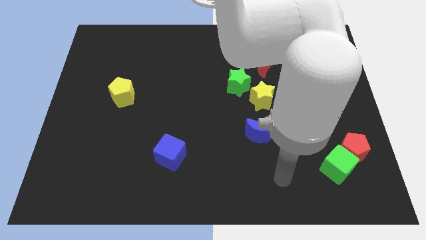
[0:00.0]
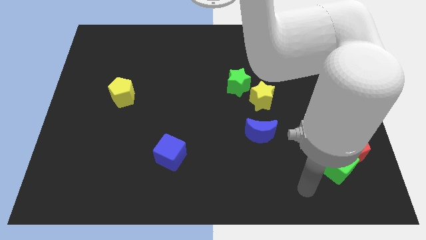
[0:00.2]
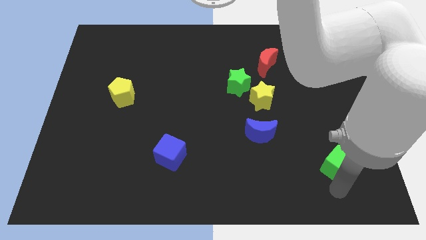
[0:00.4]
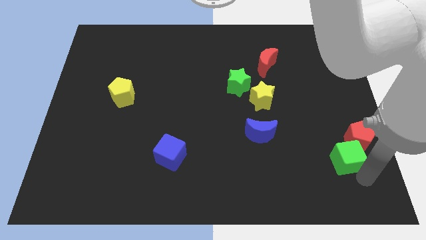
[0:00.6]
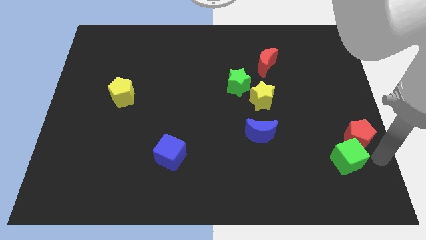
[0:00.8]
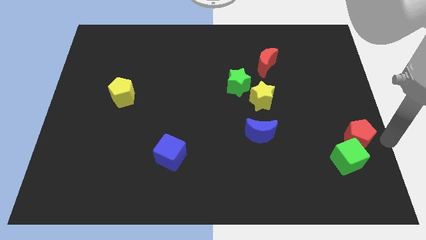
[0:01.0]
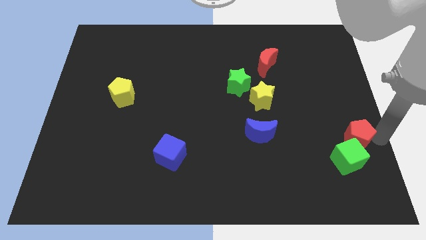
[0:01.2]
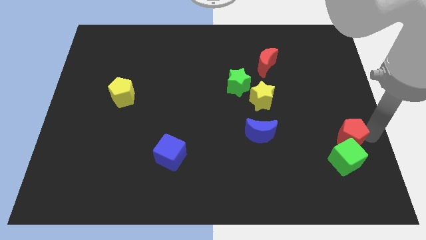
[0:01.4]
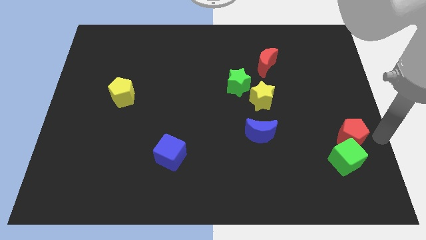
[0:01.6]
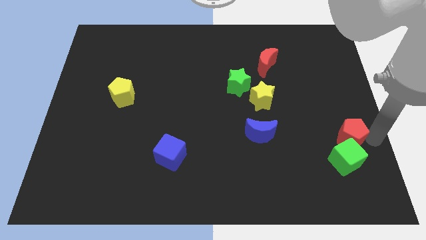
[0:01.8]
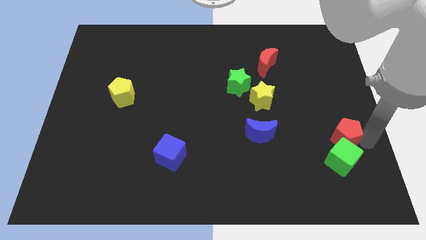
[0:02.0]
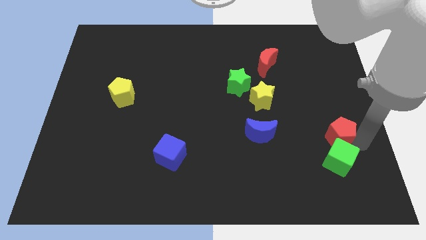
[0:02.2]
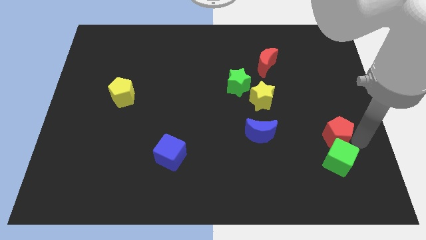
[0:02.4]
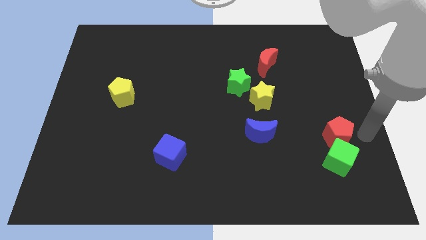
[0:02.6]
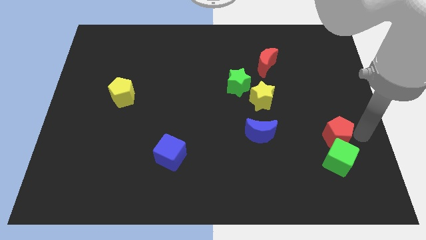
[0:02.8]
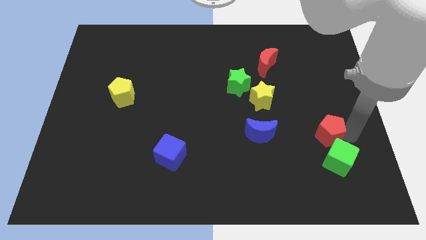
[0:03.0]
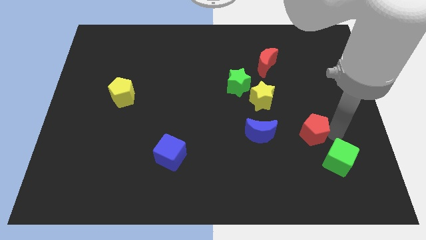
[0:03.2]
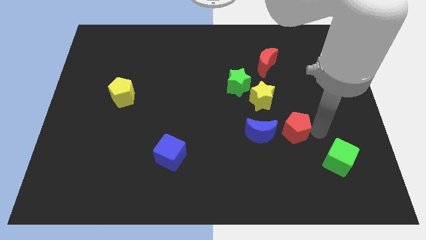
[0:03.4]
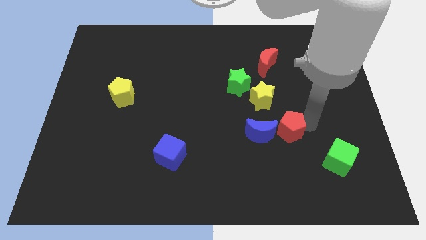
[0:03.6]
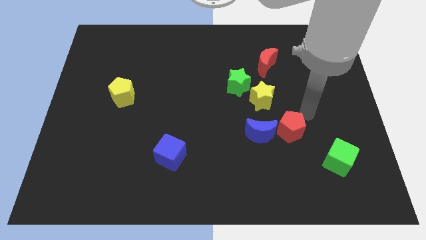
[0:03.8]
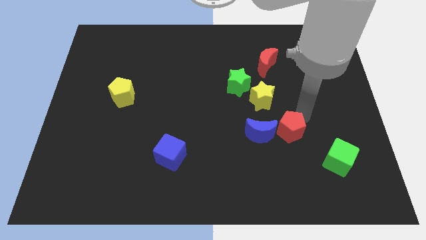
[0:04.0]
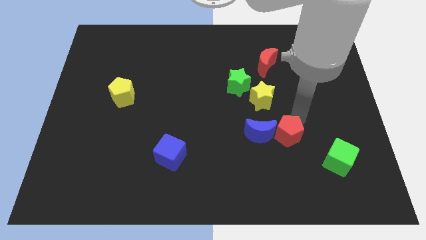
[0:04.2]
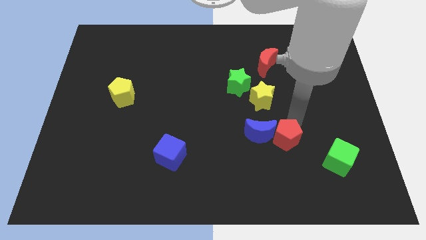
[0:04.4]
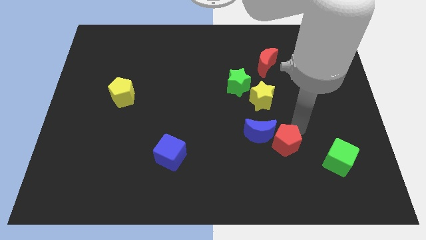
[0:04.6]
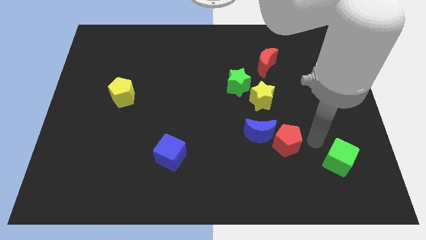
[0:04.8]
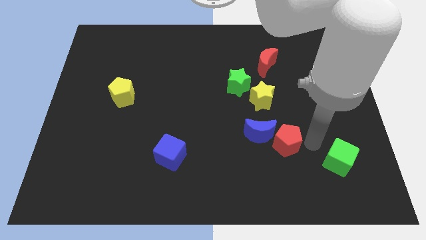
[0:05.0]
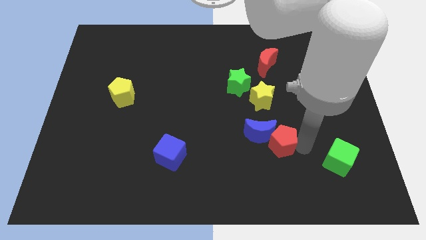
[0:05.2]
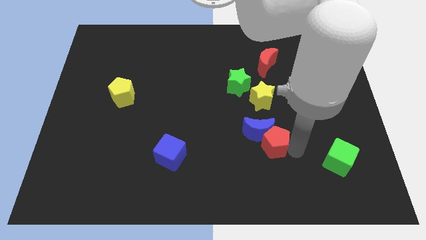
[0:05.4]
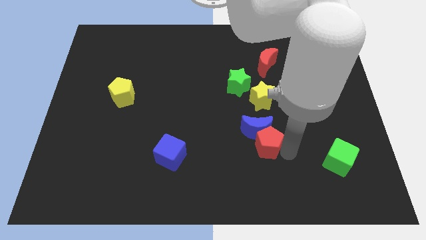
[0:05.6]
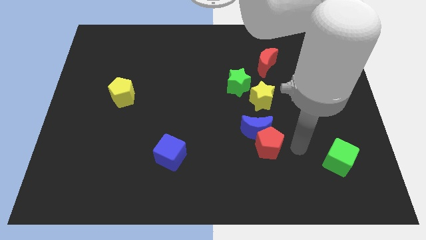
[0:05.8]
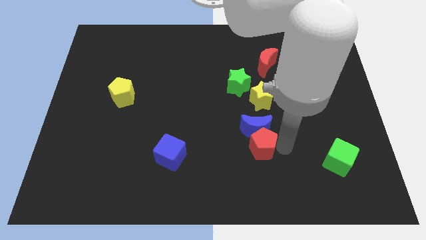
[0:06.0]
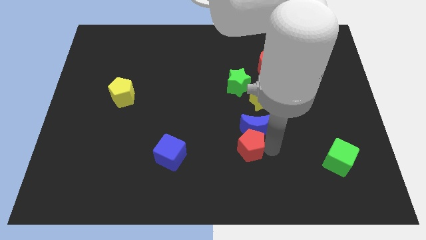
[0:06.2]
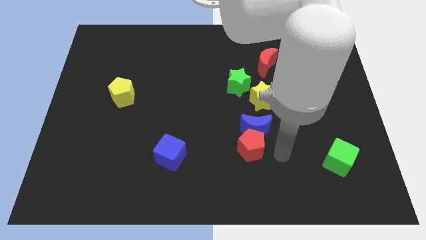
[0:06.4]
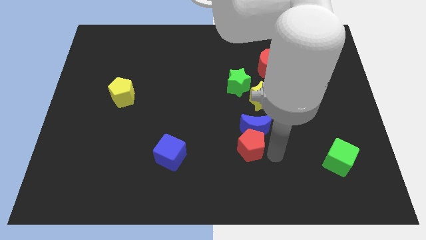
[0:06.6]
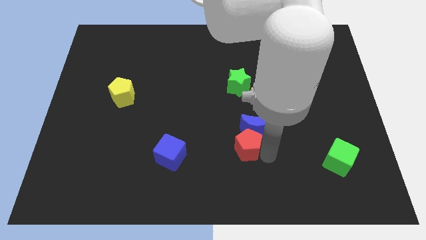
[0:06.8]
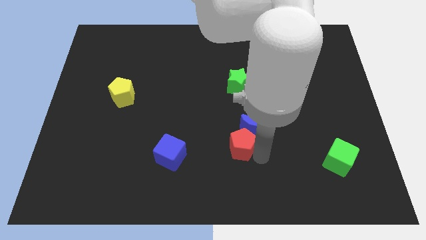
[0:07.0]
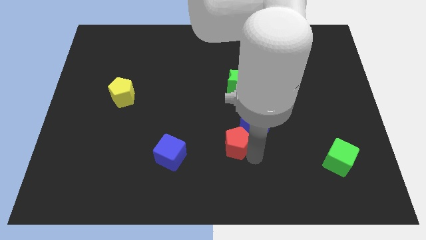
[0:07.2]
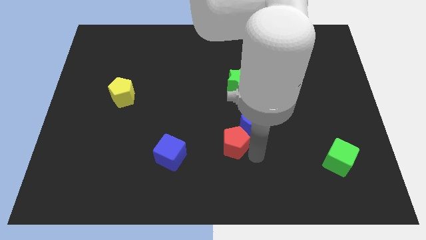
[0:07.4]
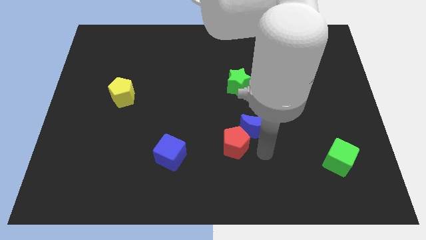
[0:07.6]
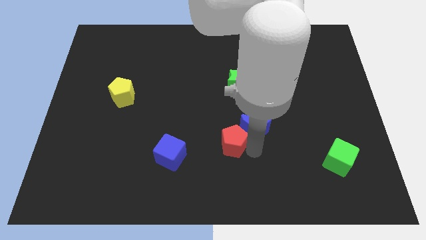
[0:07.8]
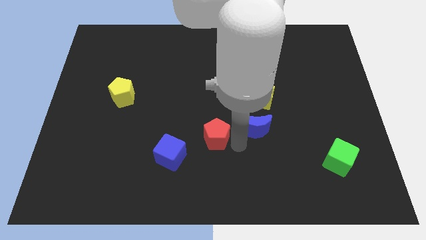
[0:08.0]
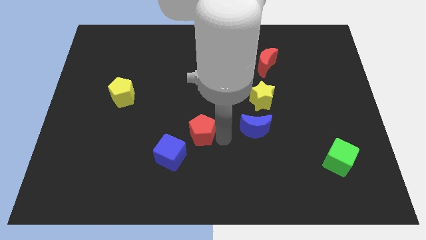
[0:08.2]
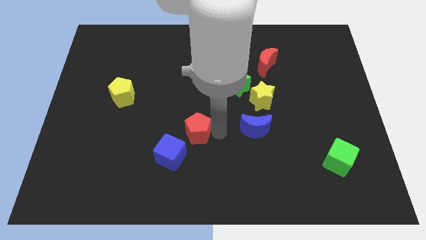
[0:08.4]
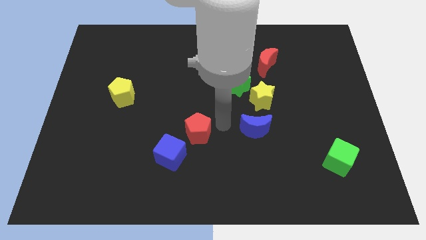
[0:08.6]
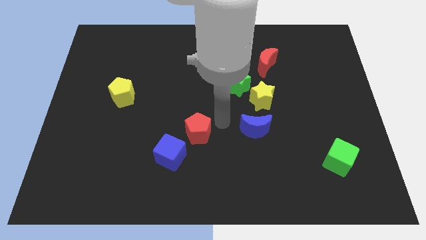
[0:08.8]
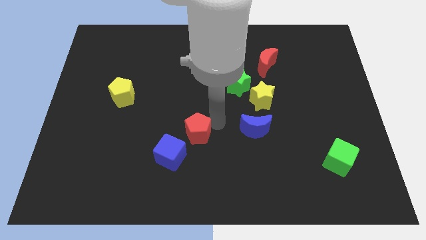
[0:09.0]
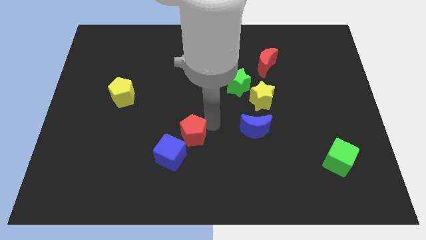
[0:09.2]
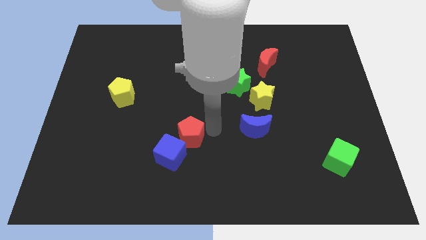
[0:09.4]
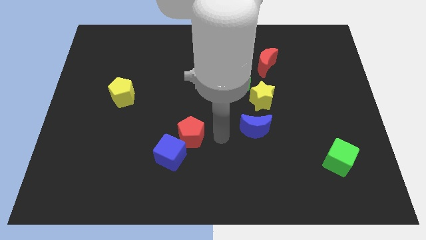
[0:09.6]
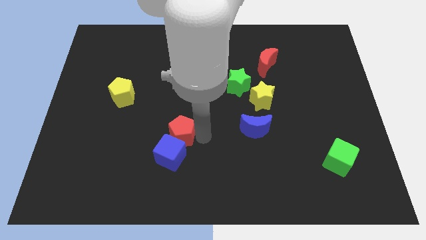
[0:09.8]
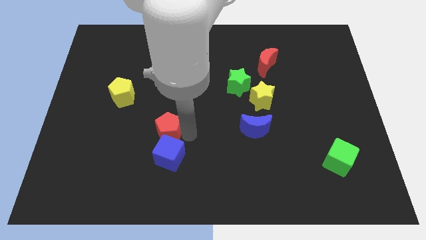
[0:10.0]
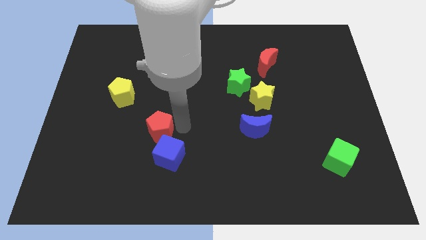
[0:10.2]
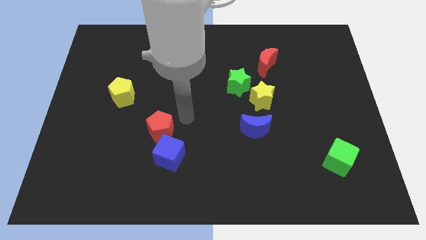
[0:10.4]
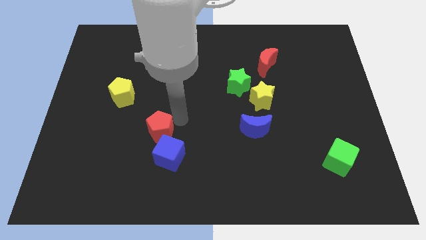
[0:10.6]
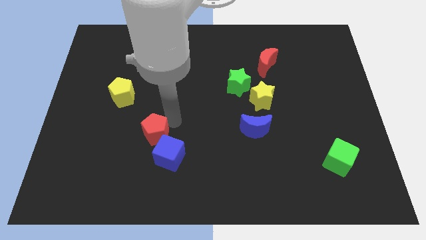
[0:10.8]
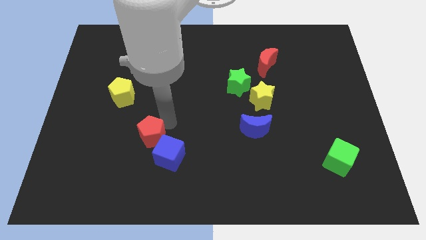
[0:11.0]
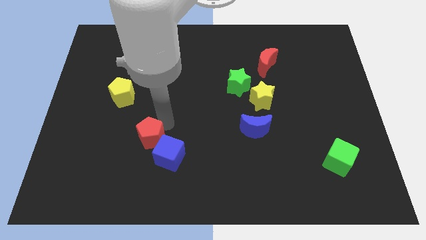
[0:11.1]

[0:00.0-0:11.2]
put the red pentagon to the left of the blue cube

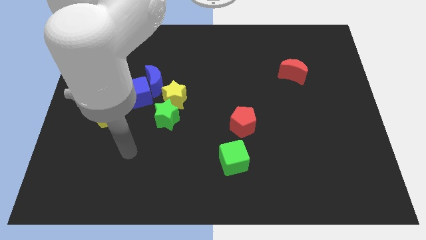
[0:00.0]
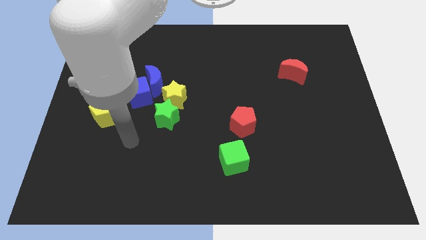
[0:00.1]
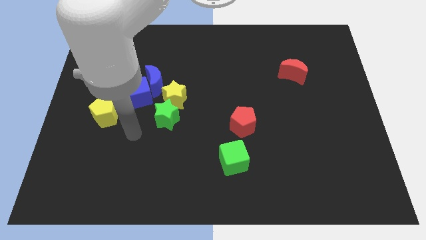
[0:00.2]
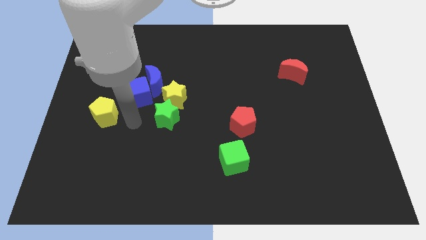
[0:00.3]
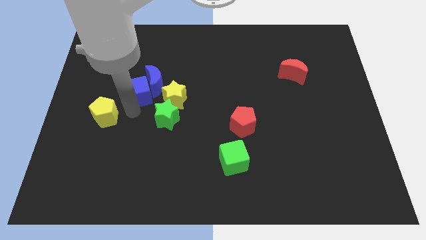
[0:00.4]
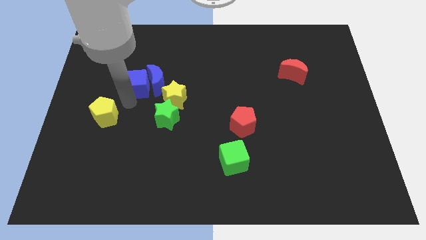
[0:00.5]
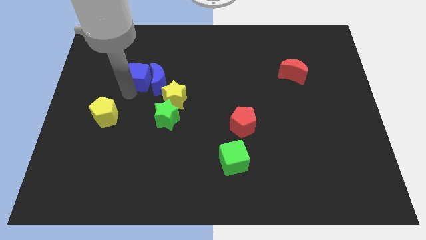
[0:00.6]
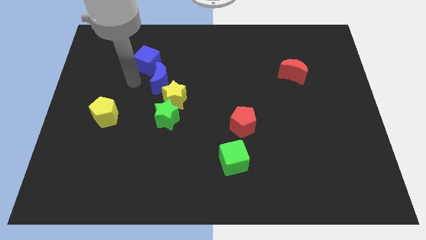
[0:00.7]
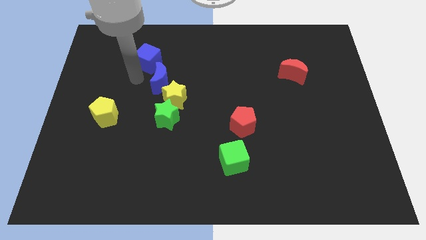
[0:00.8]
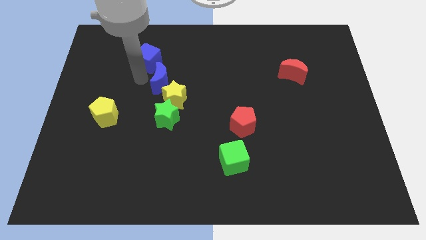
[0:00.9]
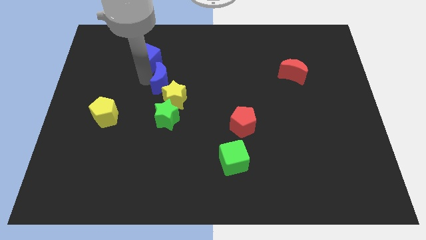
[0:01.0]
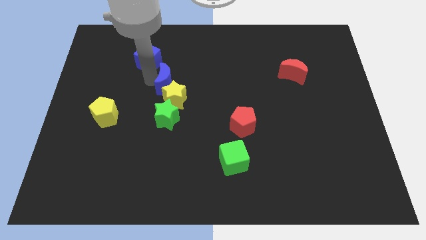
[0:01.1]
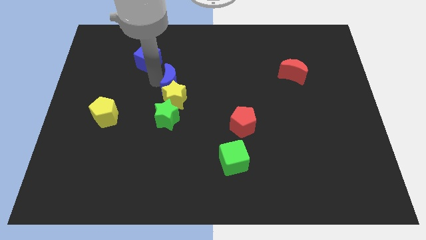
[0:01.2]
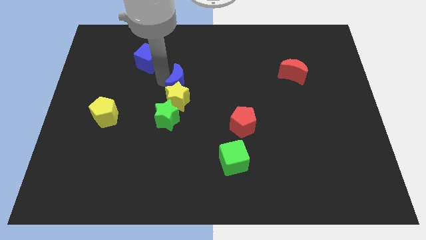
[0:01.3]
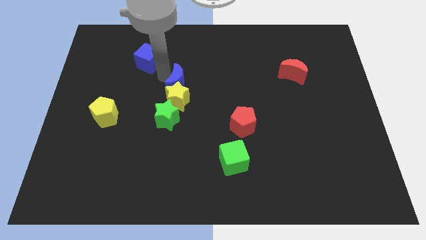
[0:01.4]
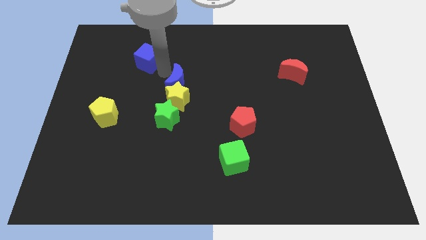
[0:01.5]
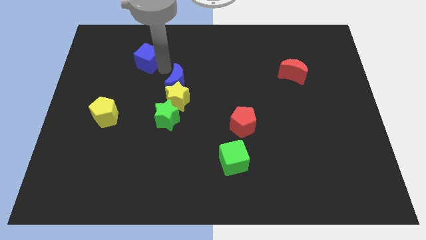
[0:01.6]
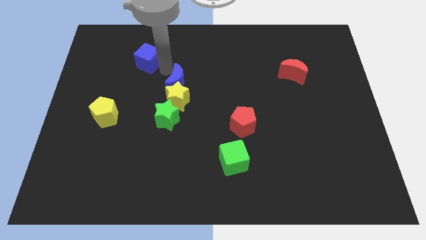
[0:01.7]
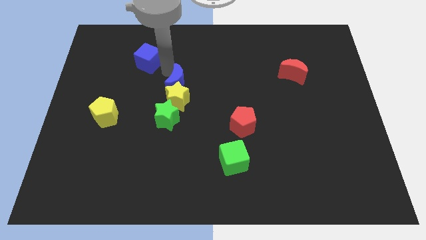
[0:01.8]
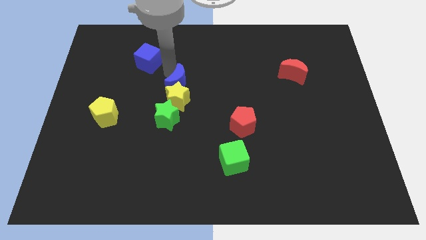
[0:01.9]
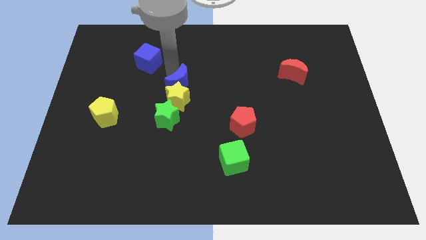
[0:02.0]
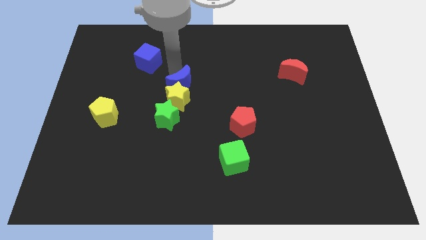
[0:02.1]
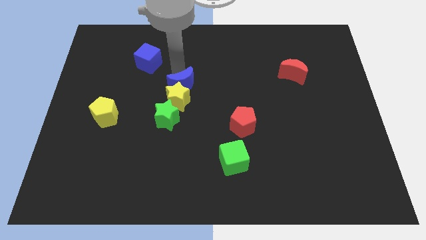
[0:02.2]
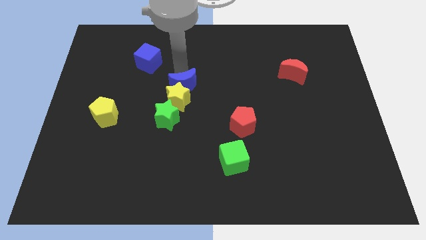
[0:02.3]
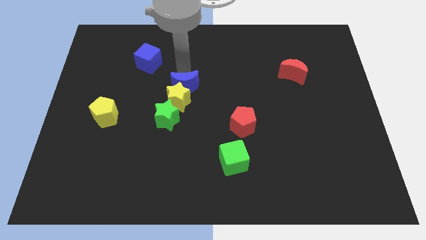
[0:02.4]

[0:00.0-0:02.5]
put the blue moon diagonally up and to the right of the green star
